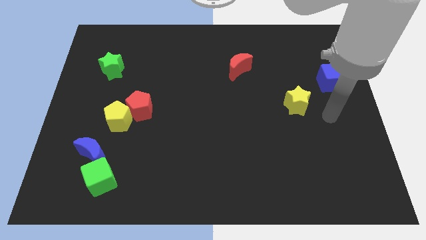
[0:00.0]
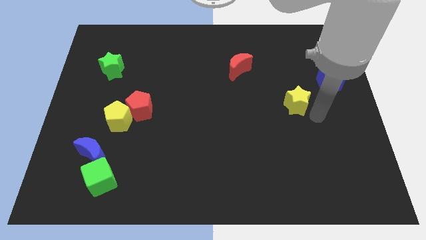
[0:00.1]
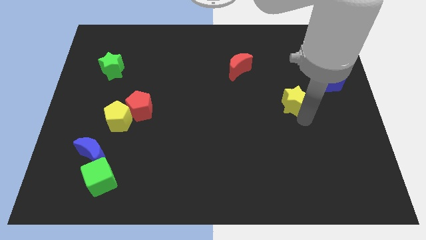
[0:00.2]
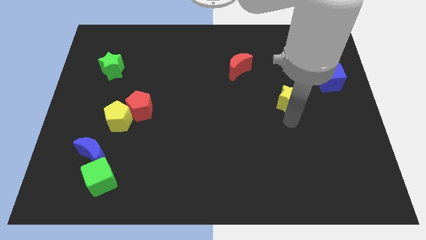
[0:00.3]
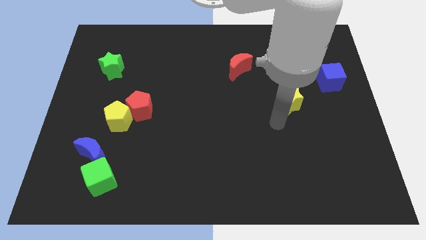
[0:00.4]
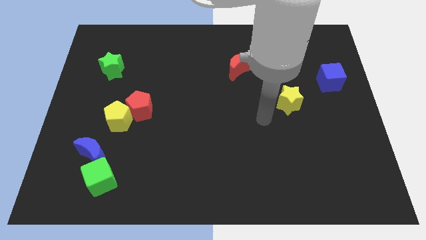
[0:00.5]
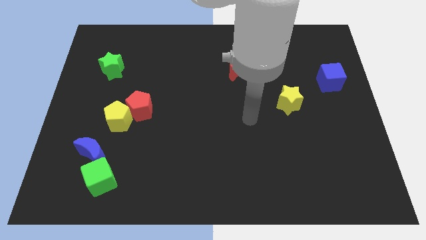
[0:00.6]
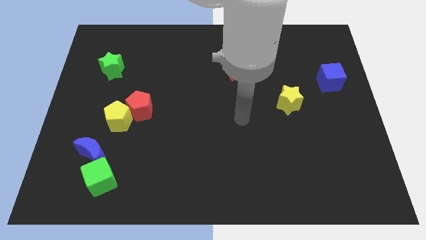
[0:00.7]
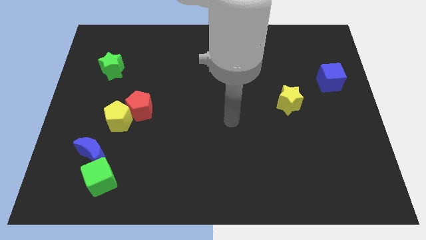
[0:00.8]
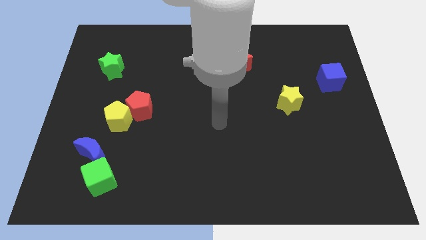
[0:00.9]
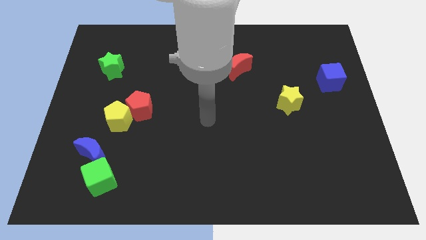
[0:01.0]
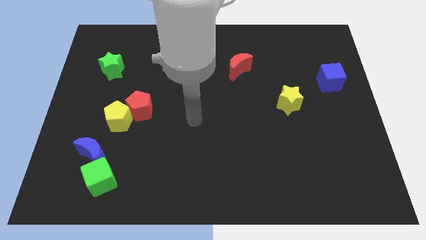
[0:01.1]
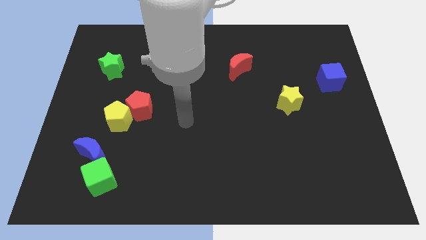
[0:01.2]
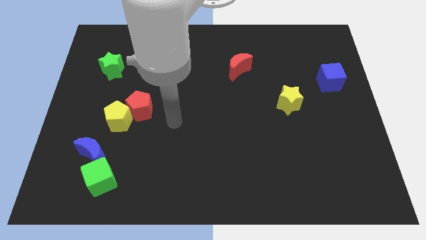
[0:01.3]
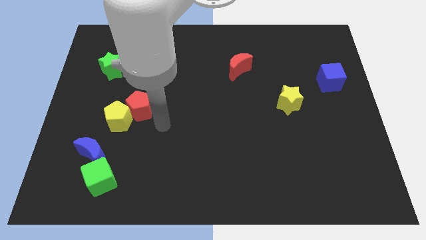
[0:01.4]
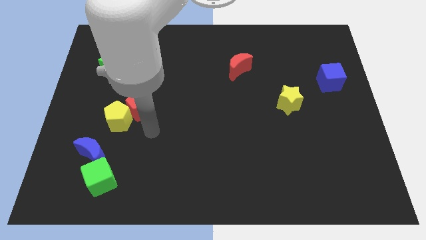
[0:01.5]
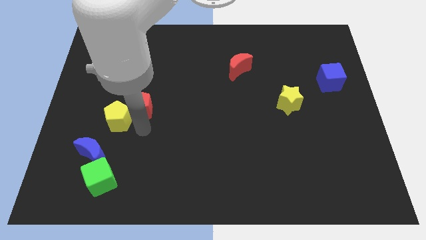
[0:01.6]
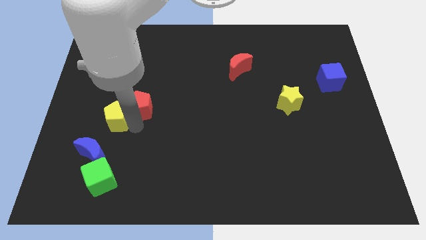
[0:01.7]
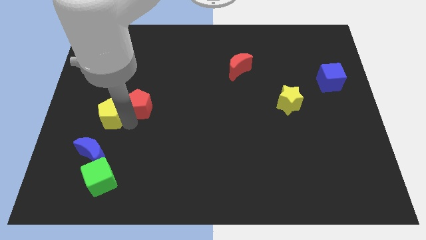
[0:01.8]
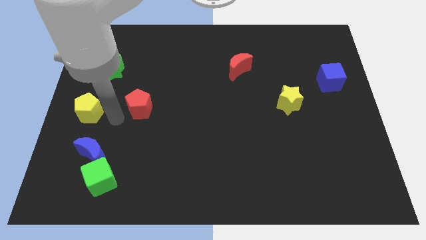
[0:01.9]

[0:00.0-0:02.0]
move the red pentagon away from the yellow pentagon

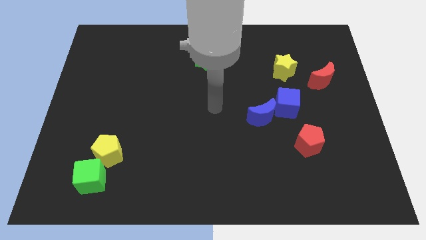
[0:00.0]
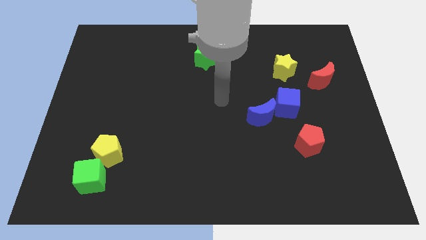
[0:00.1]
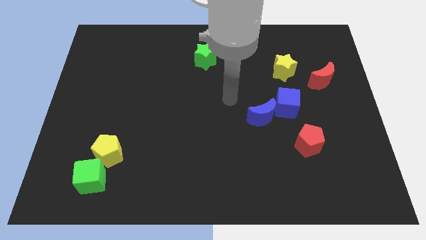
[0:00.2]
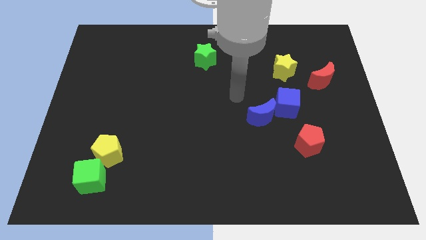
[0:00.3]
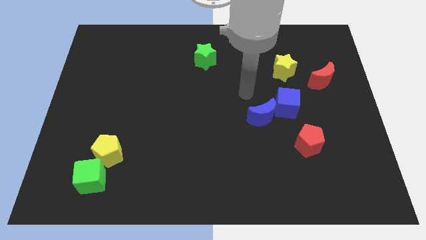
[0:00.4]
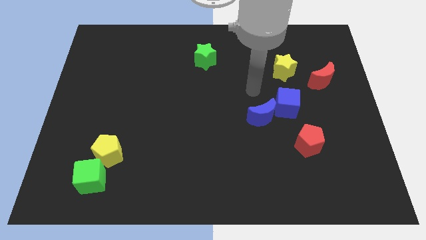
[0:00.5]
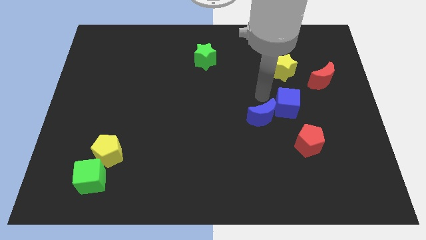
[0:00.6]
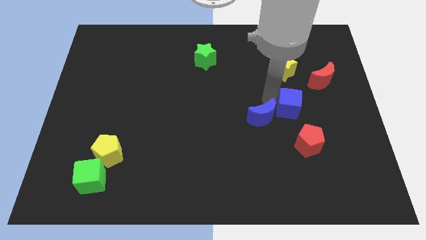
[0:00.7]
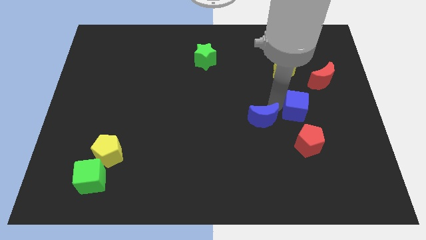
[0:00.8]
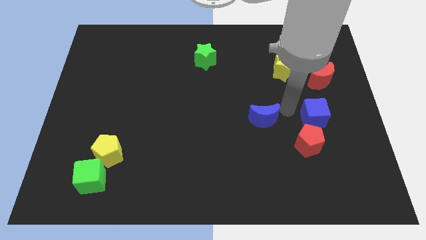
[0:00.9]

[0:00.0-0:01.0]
separate the blue moon from the blue cube

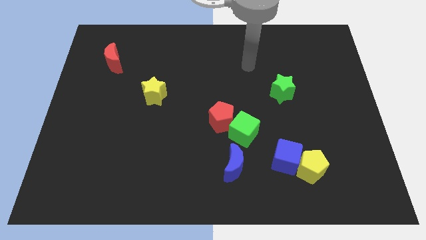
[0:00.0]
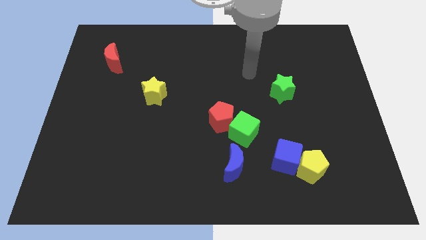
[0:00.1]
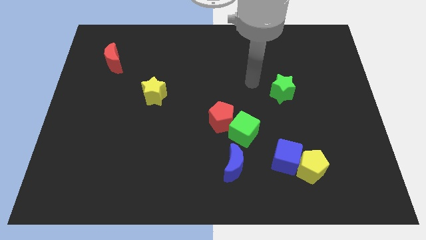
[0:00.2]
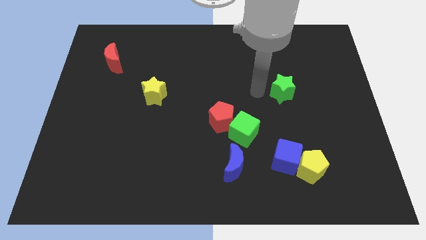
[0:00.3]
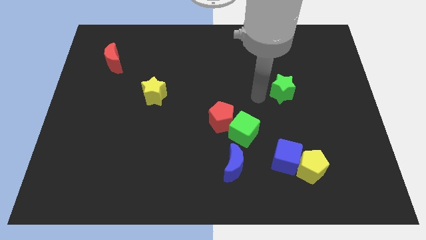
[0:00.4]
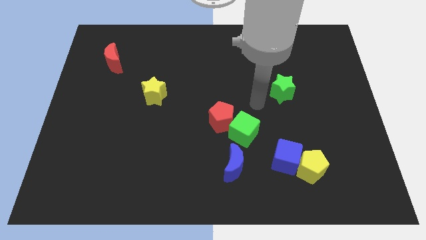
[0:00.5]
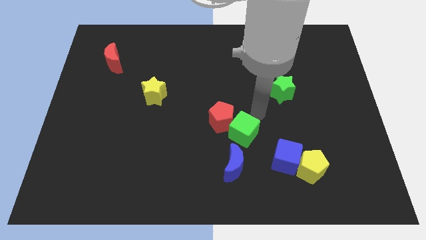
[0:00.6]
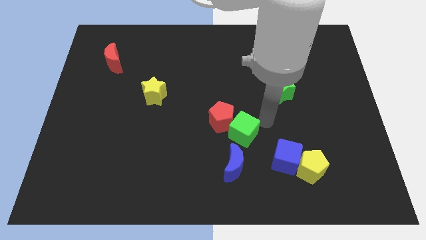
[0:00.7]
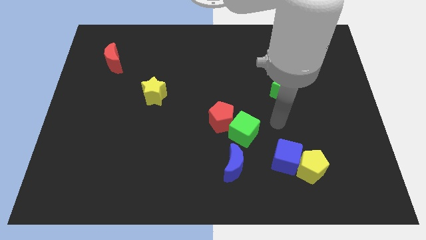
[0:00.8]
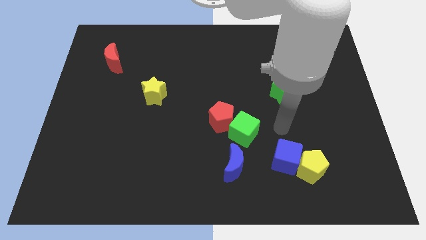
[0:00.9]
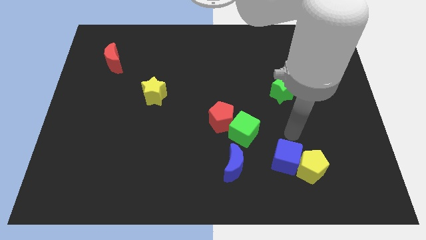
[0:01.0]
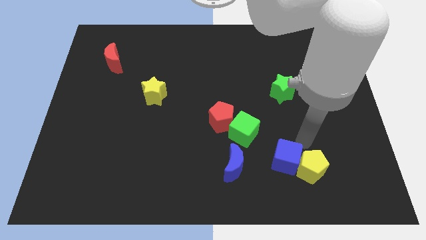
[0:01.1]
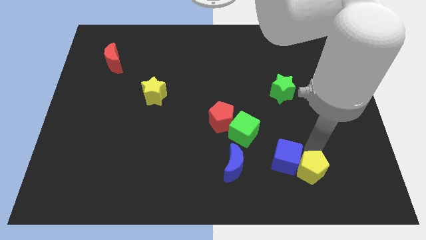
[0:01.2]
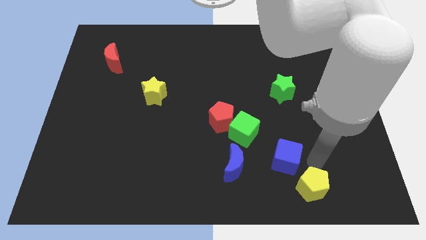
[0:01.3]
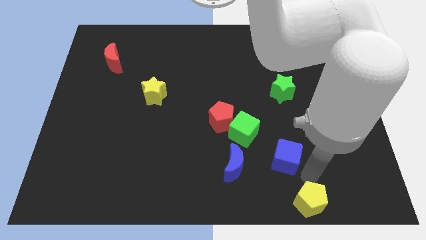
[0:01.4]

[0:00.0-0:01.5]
move the blue cube away from the yellow pentagon

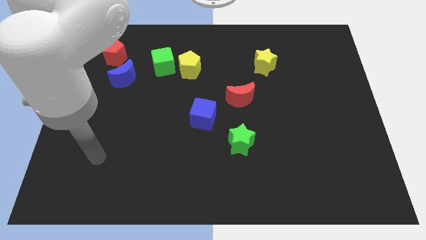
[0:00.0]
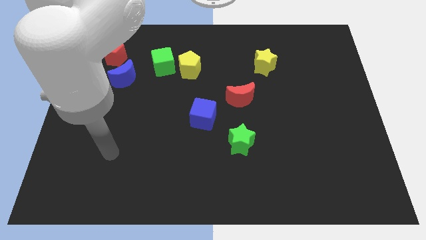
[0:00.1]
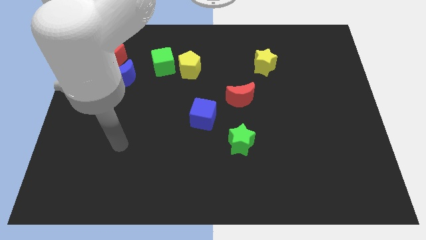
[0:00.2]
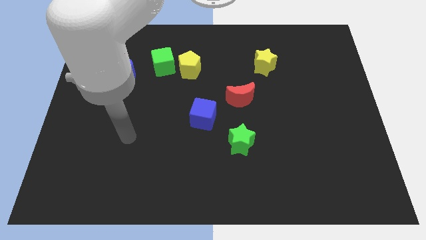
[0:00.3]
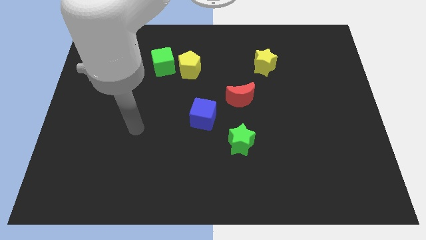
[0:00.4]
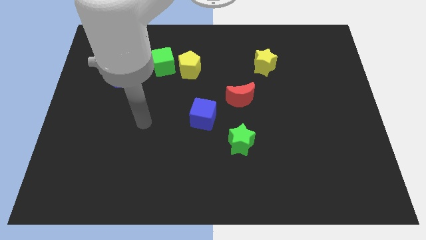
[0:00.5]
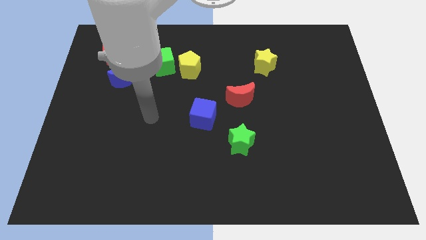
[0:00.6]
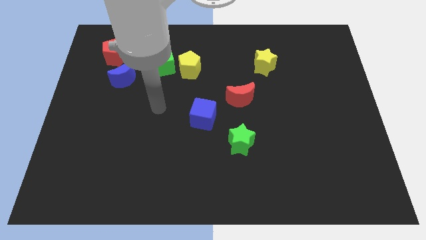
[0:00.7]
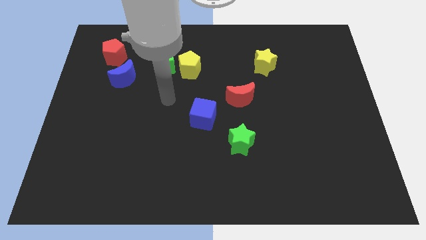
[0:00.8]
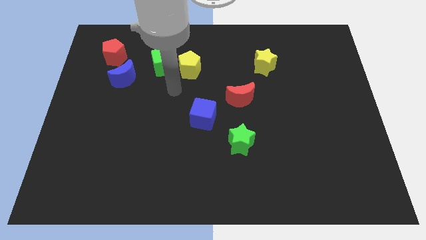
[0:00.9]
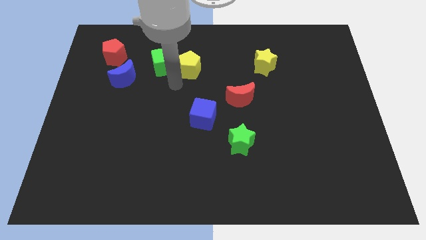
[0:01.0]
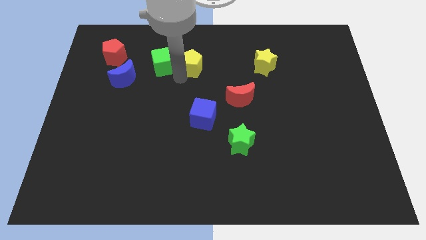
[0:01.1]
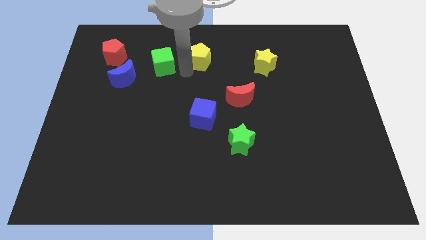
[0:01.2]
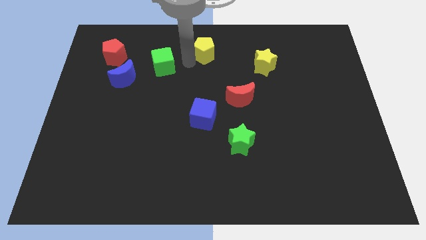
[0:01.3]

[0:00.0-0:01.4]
separate the green cube from the yellow pentagon

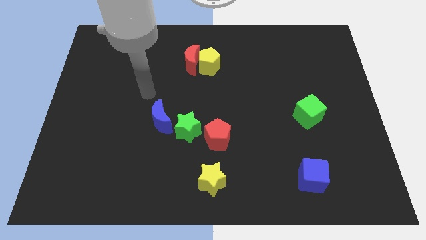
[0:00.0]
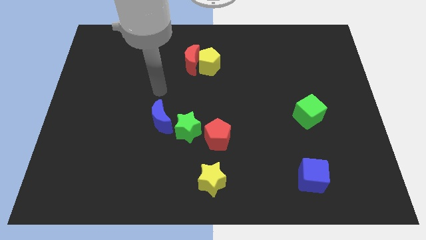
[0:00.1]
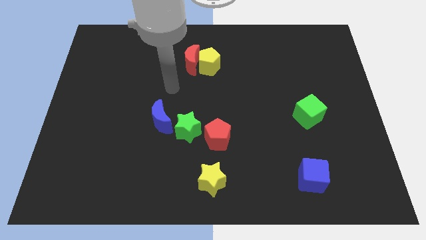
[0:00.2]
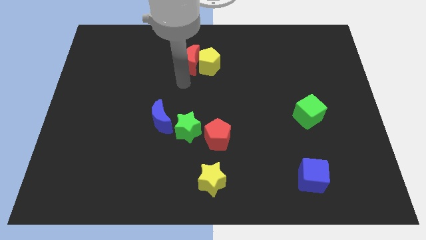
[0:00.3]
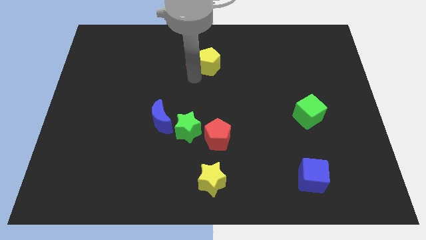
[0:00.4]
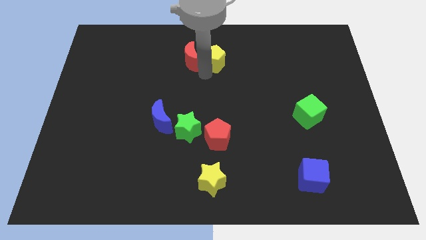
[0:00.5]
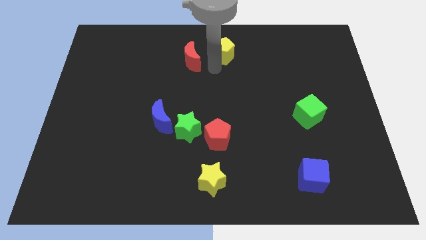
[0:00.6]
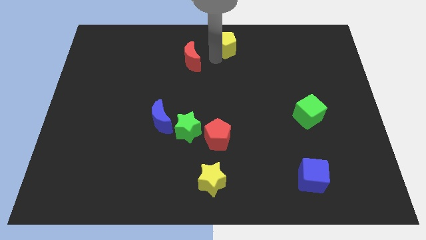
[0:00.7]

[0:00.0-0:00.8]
separate the red moon from the yellow pentagon

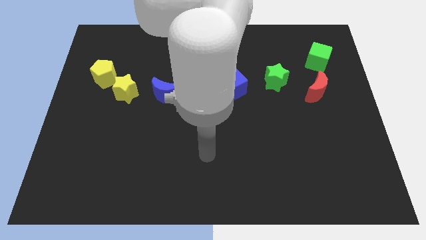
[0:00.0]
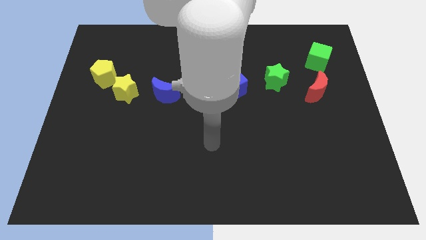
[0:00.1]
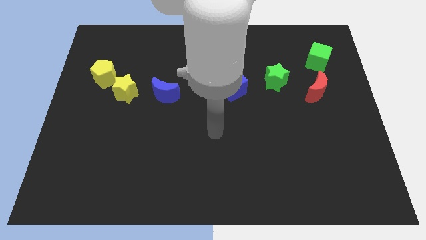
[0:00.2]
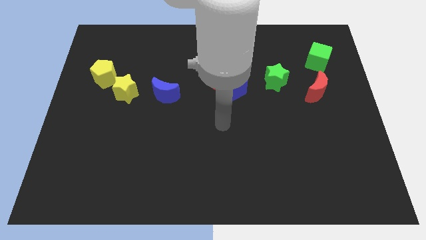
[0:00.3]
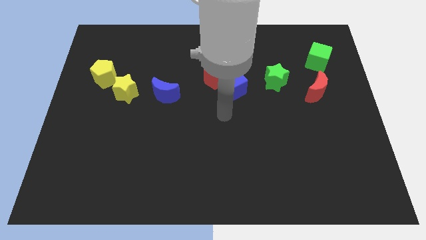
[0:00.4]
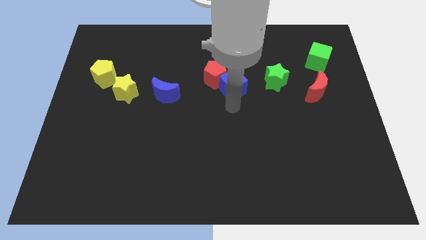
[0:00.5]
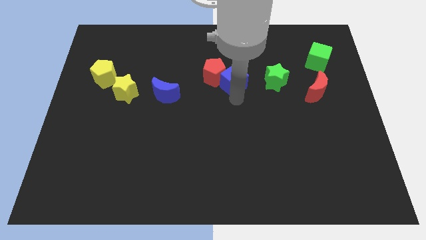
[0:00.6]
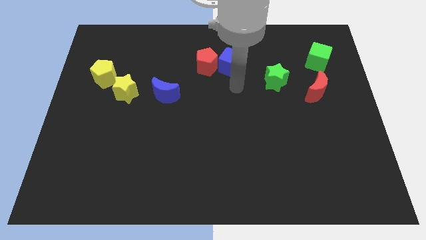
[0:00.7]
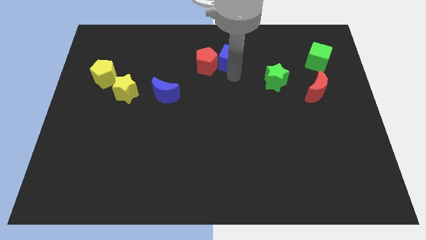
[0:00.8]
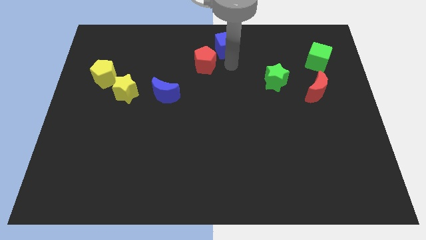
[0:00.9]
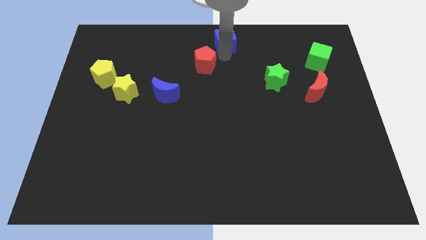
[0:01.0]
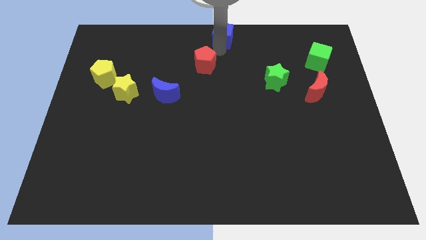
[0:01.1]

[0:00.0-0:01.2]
pull the red pentagon apart from the blue cube

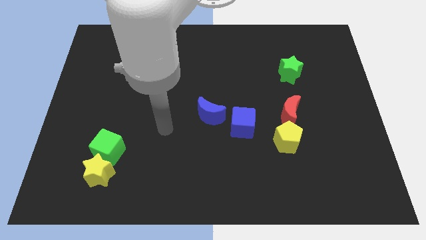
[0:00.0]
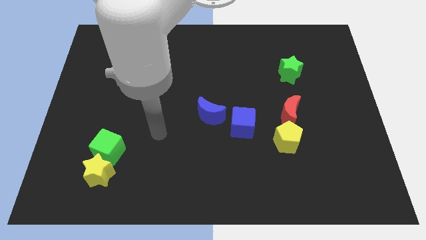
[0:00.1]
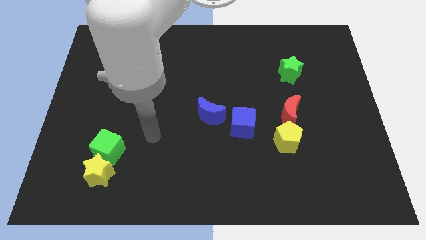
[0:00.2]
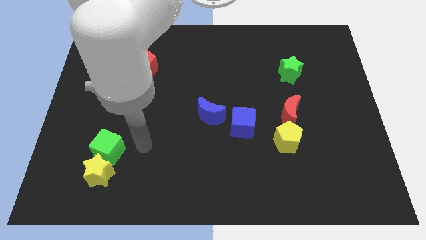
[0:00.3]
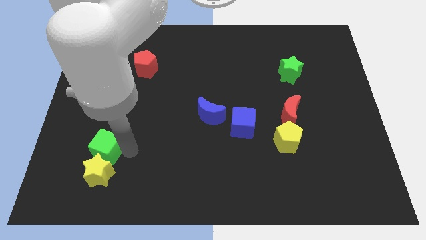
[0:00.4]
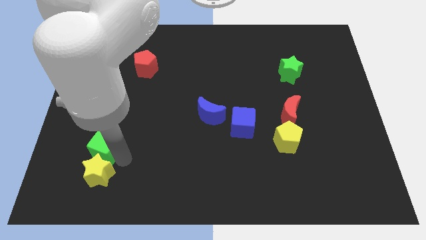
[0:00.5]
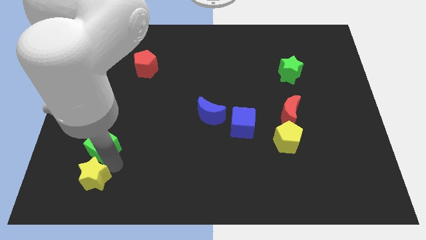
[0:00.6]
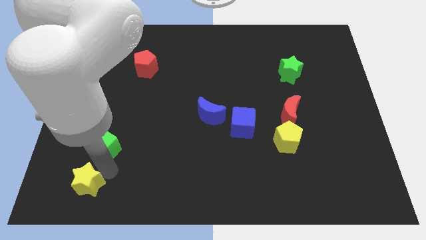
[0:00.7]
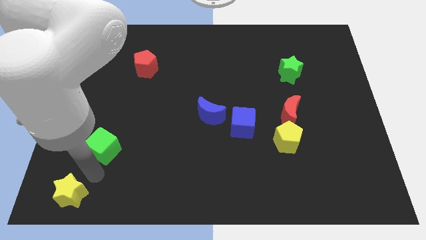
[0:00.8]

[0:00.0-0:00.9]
pull the green cube apart from the yellow star

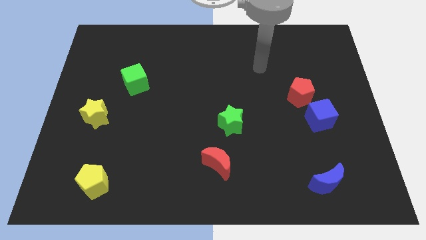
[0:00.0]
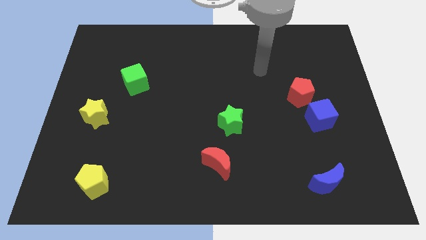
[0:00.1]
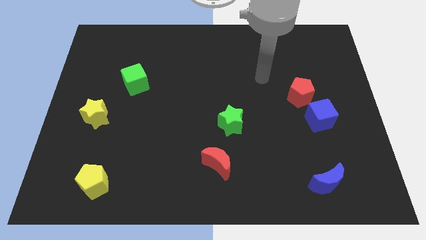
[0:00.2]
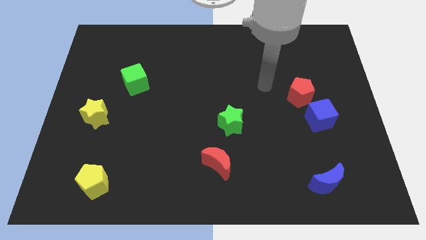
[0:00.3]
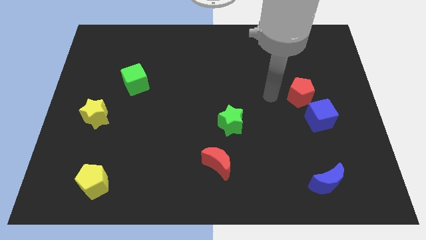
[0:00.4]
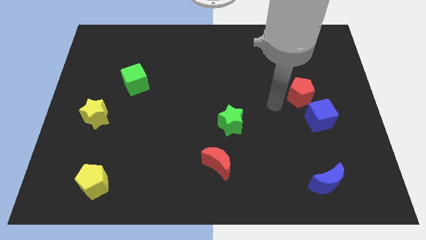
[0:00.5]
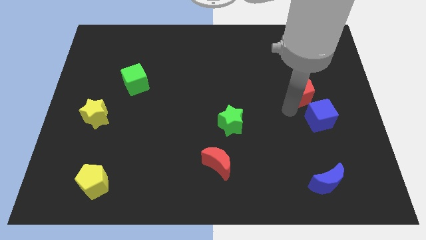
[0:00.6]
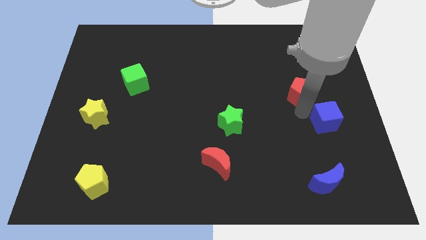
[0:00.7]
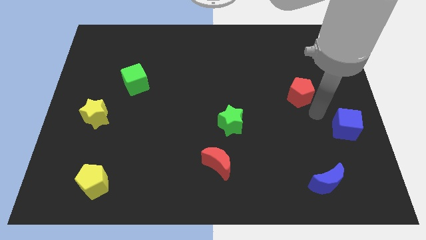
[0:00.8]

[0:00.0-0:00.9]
separate the red pentagon from the blue cube
